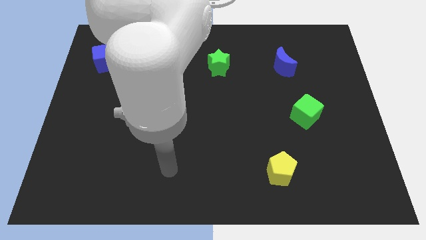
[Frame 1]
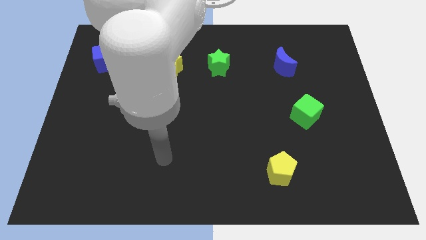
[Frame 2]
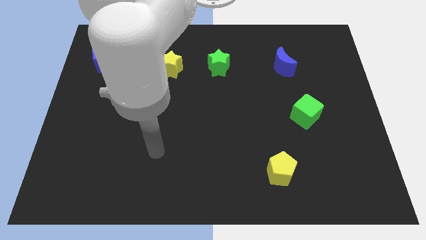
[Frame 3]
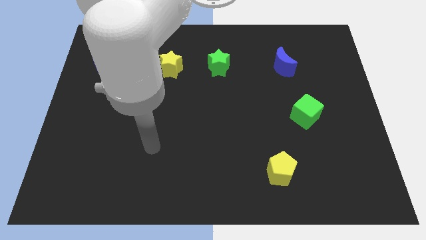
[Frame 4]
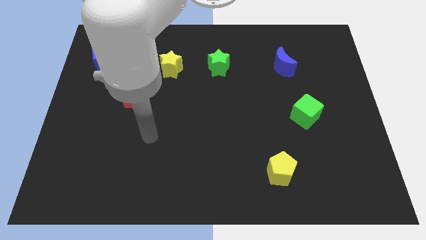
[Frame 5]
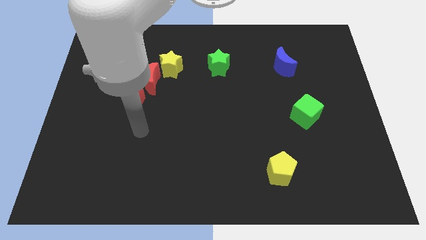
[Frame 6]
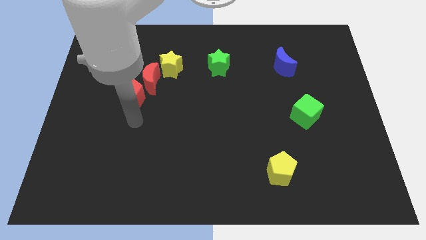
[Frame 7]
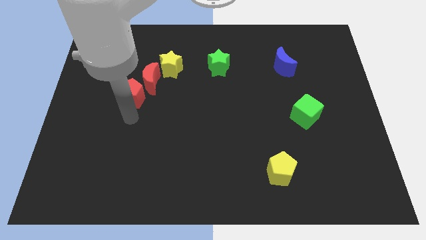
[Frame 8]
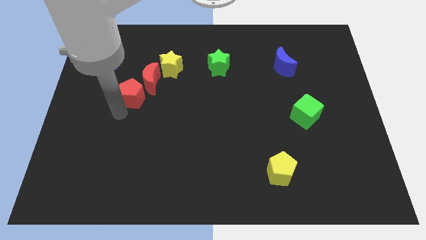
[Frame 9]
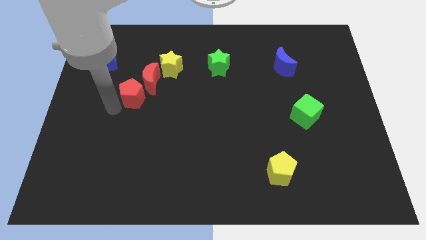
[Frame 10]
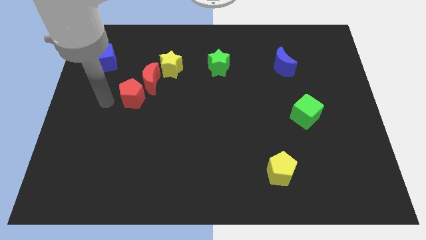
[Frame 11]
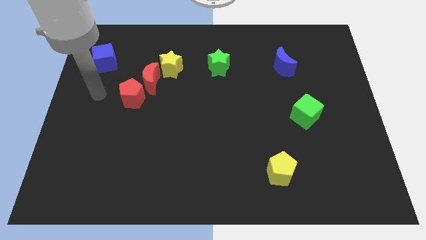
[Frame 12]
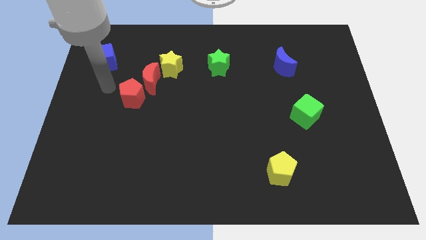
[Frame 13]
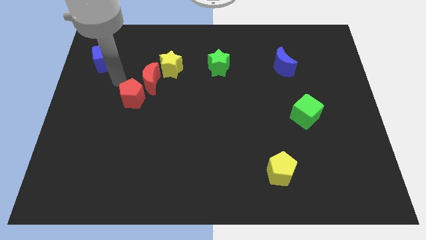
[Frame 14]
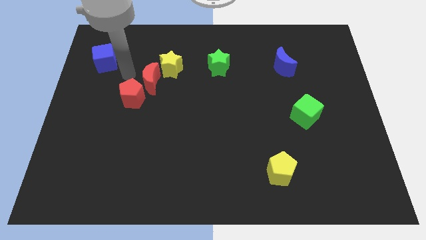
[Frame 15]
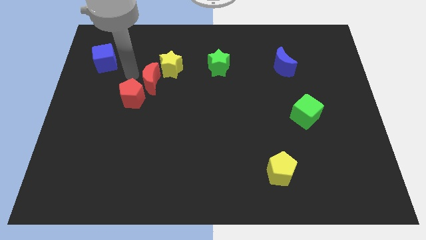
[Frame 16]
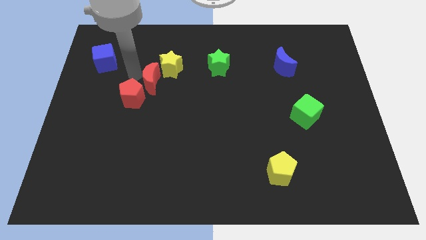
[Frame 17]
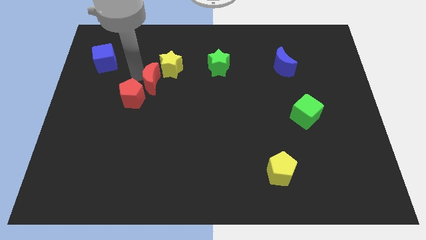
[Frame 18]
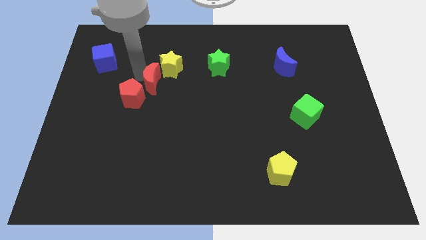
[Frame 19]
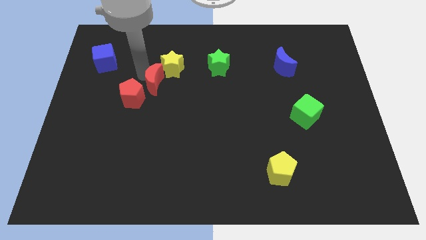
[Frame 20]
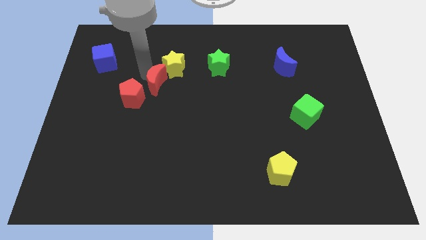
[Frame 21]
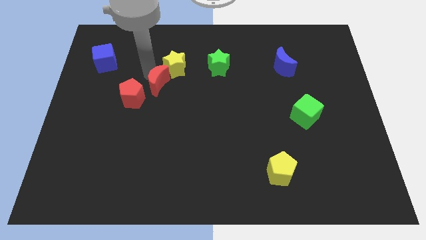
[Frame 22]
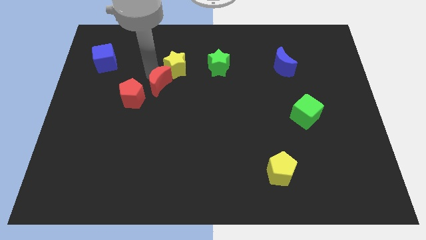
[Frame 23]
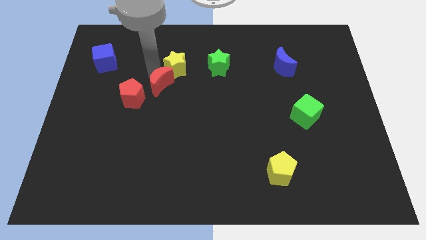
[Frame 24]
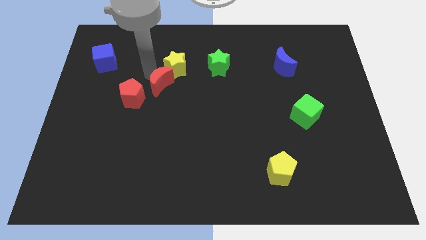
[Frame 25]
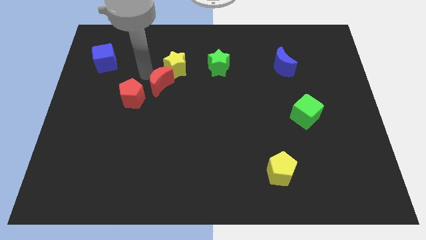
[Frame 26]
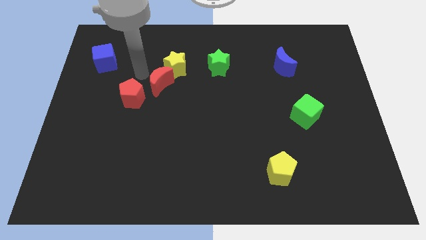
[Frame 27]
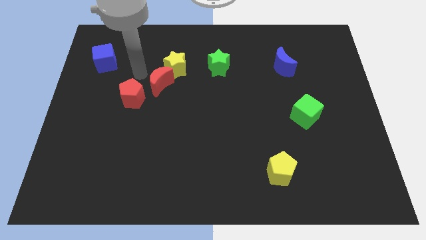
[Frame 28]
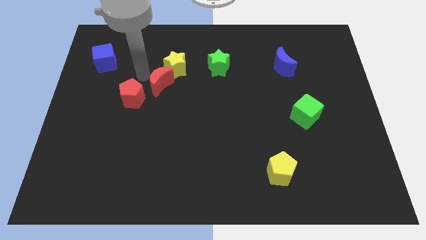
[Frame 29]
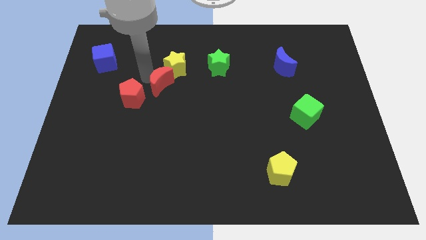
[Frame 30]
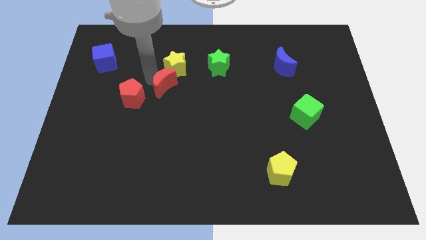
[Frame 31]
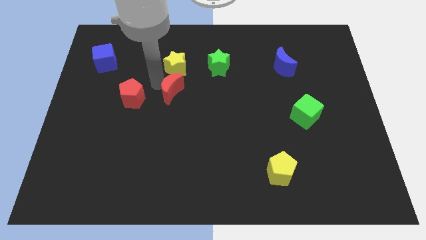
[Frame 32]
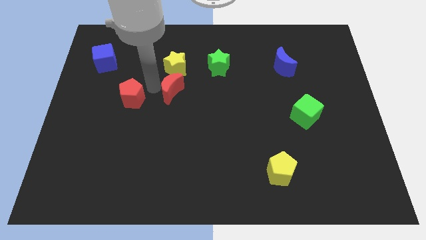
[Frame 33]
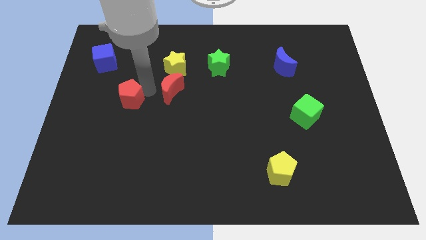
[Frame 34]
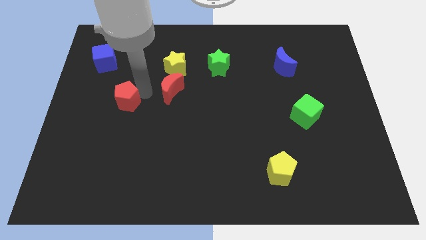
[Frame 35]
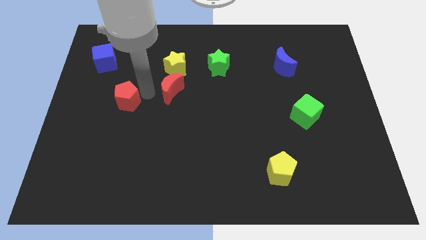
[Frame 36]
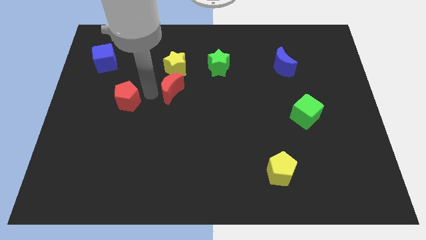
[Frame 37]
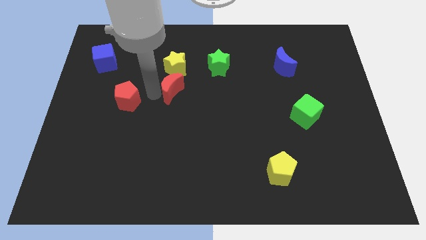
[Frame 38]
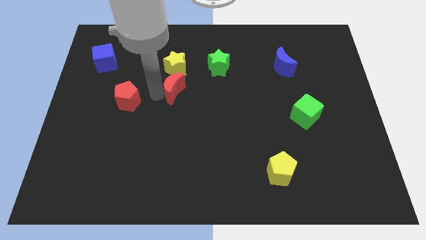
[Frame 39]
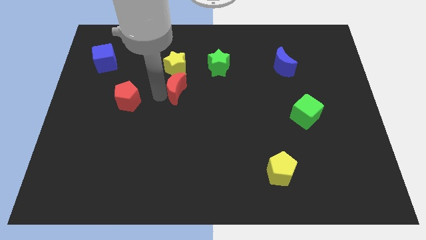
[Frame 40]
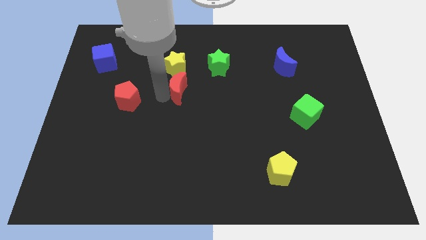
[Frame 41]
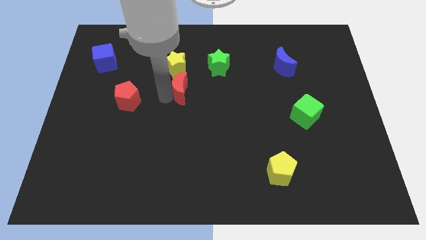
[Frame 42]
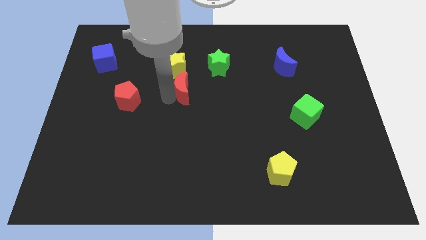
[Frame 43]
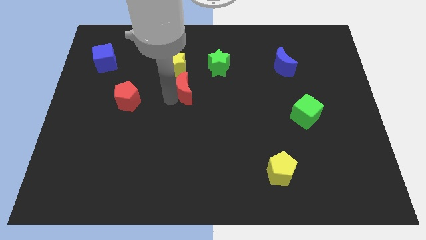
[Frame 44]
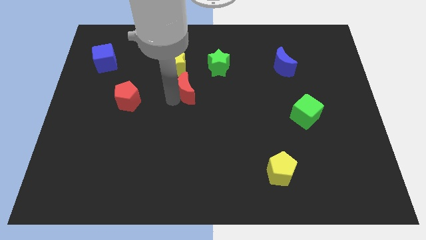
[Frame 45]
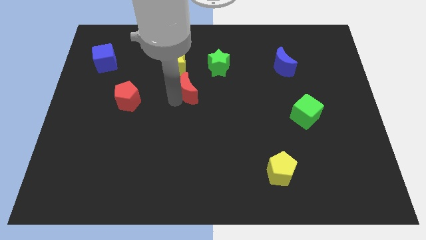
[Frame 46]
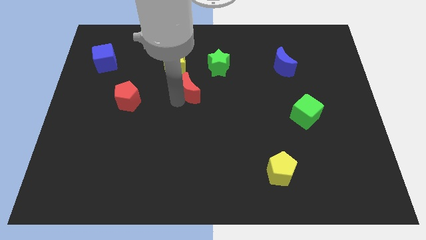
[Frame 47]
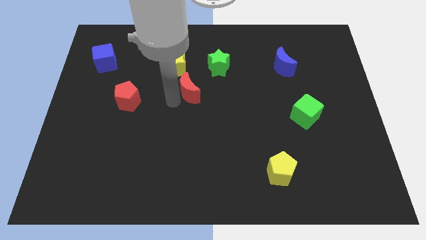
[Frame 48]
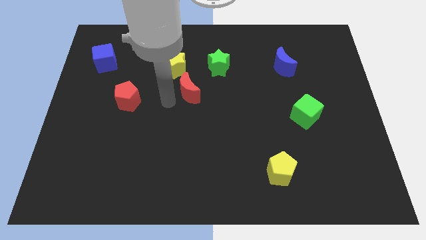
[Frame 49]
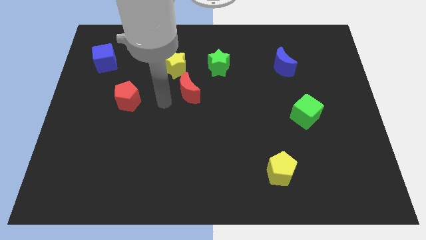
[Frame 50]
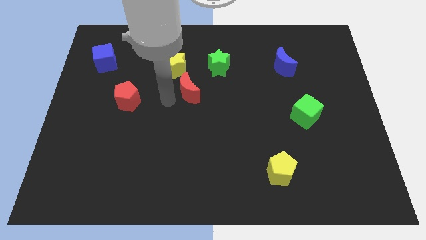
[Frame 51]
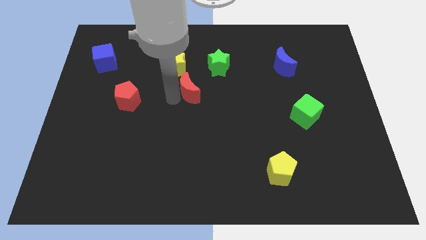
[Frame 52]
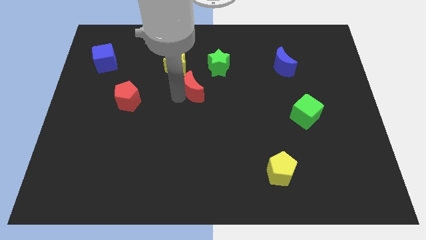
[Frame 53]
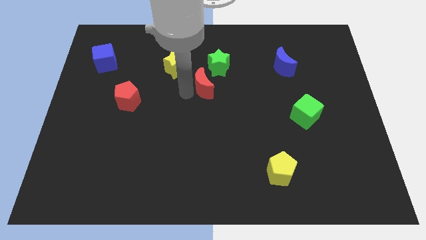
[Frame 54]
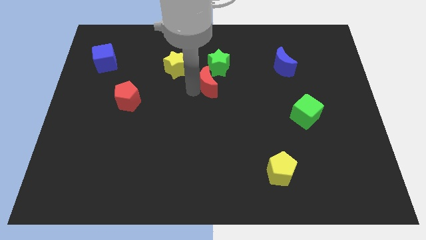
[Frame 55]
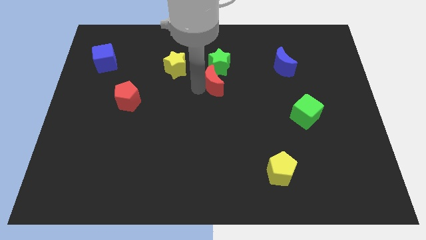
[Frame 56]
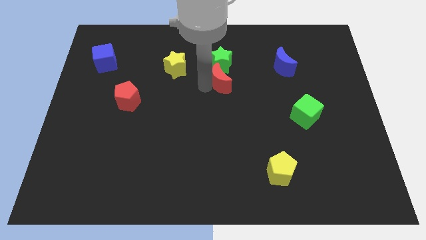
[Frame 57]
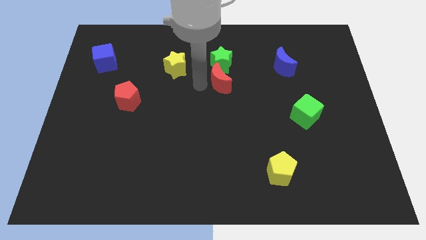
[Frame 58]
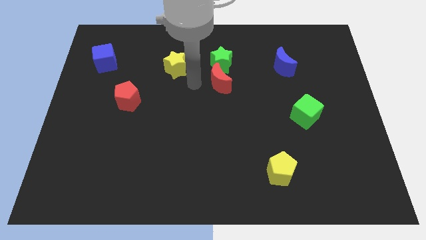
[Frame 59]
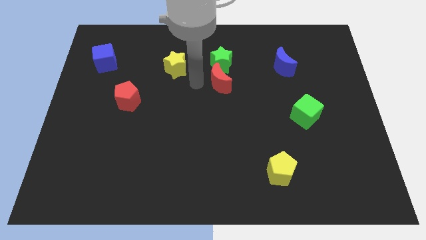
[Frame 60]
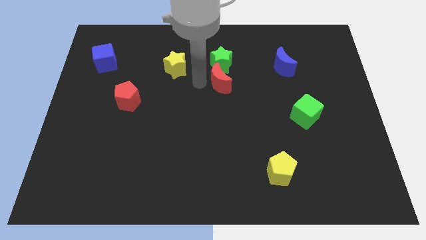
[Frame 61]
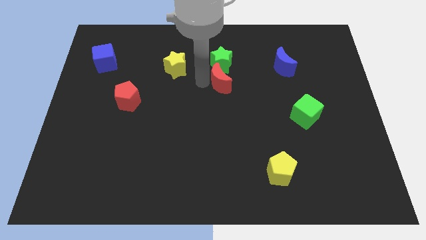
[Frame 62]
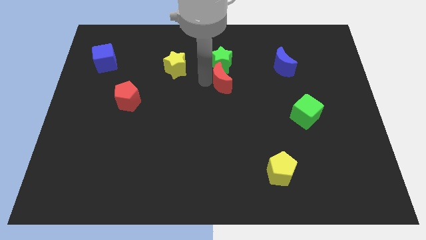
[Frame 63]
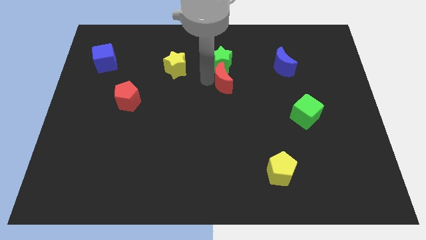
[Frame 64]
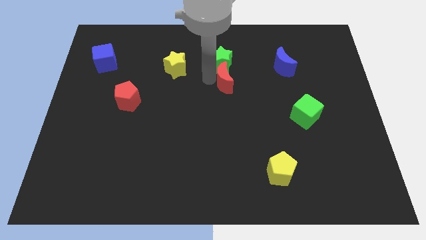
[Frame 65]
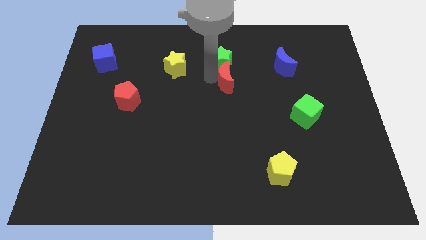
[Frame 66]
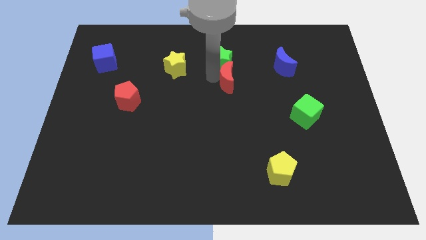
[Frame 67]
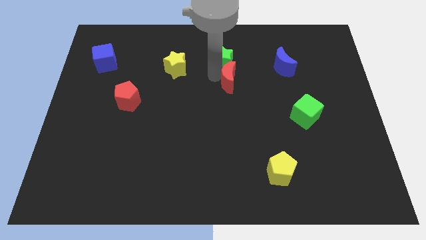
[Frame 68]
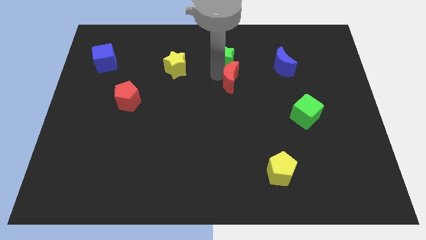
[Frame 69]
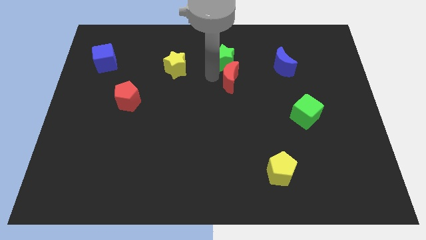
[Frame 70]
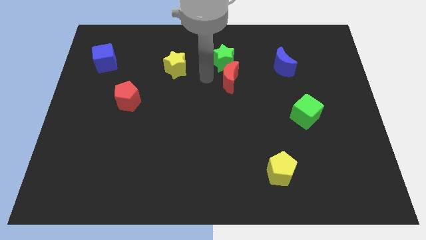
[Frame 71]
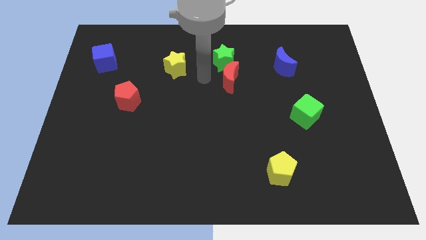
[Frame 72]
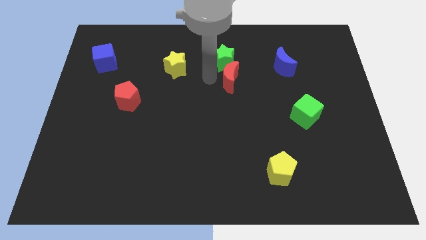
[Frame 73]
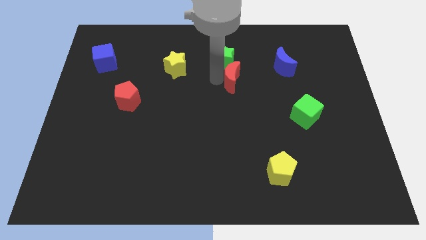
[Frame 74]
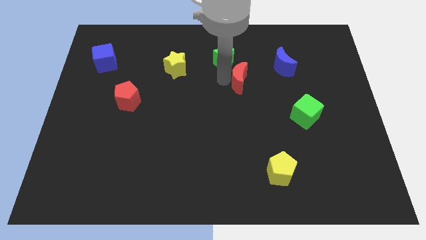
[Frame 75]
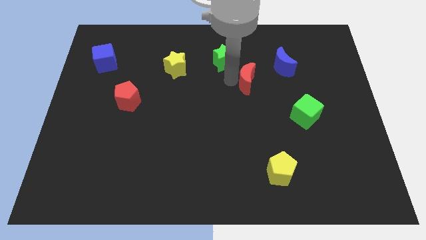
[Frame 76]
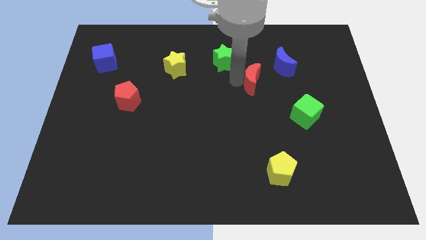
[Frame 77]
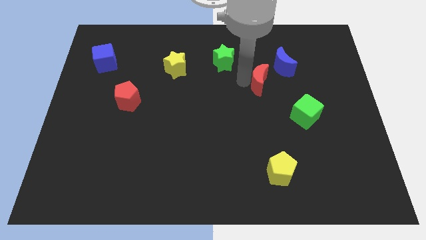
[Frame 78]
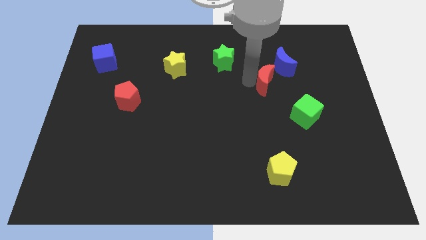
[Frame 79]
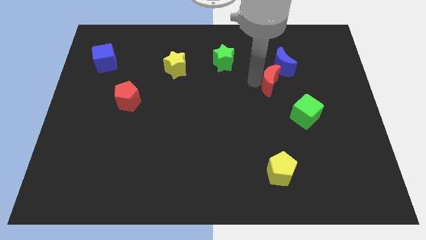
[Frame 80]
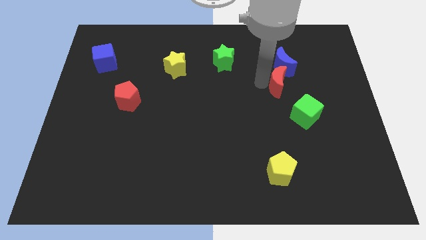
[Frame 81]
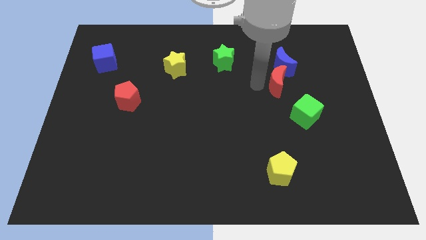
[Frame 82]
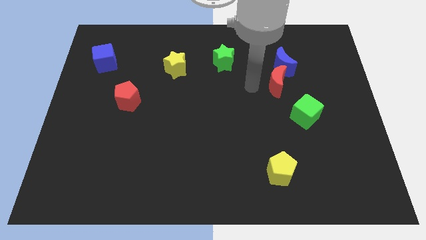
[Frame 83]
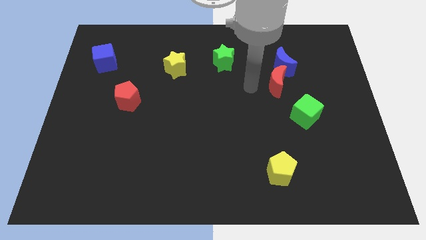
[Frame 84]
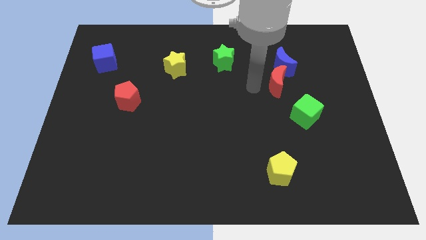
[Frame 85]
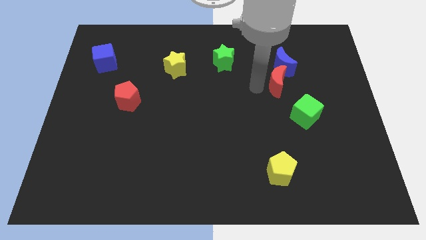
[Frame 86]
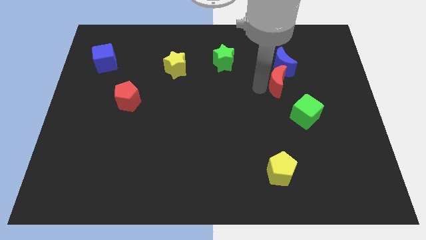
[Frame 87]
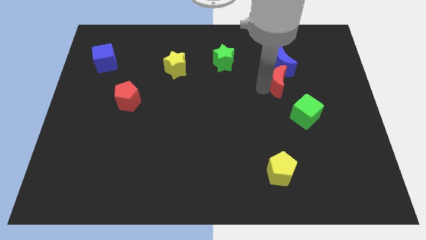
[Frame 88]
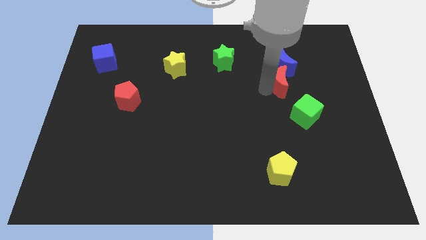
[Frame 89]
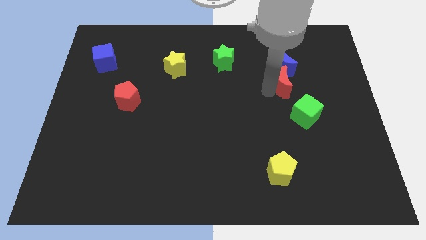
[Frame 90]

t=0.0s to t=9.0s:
move the red moon above the green cube
